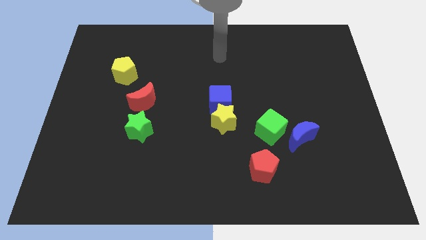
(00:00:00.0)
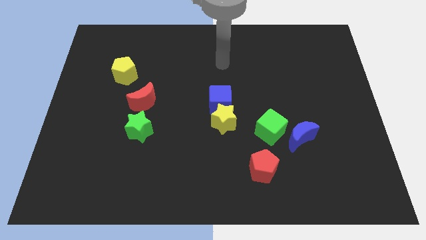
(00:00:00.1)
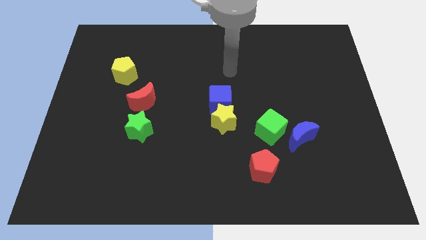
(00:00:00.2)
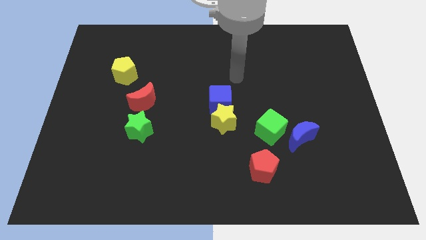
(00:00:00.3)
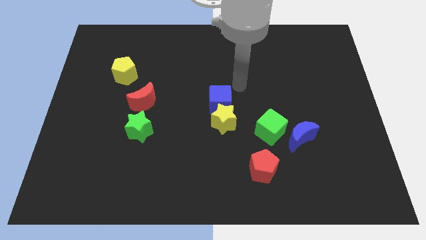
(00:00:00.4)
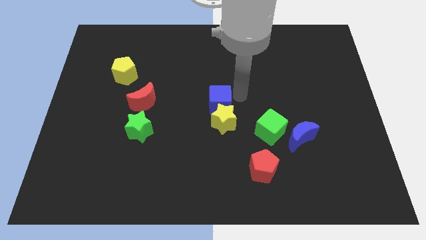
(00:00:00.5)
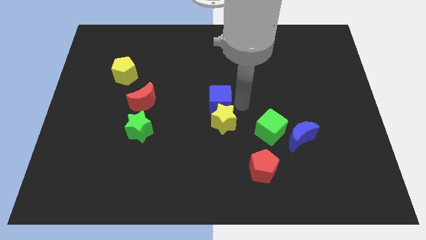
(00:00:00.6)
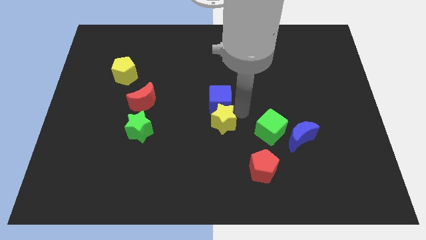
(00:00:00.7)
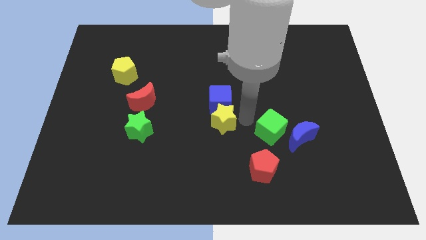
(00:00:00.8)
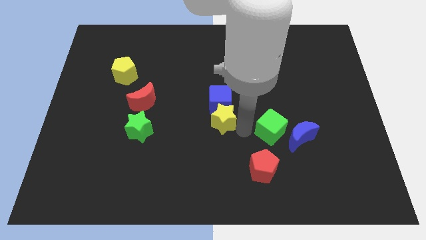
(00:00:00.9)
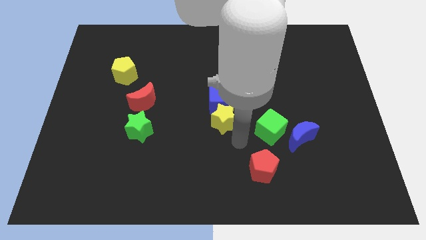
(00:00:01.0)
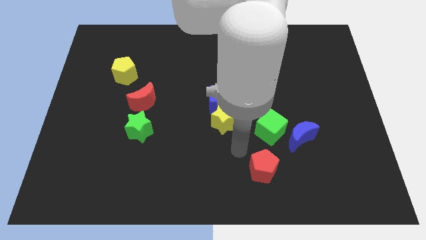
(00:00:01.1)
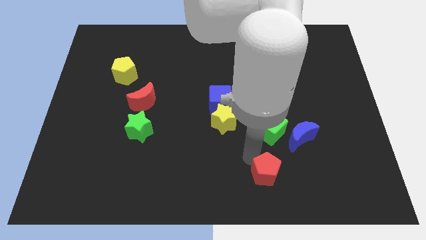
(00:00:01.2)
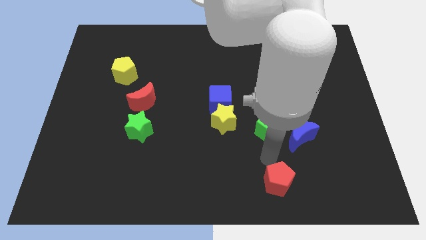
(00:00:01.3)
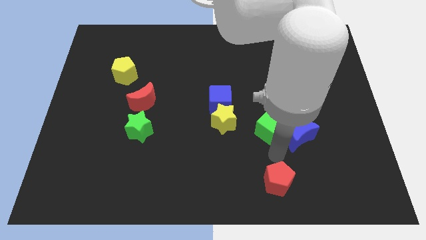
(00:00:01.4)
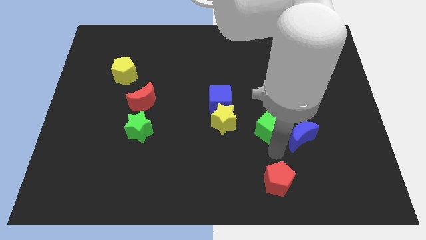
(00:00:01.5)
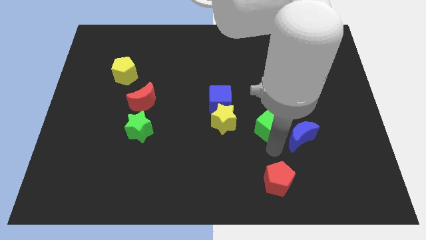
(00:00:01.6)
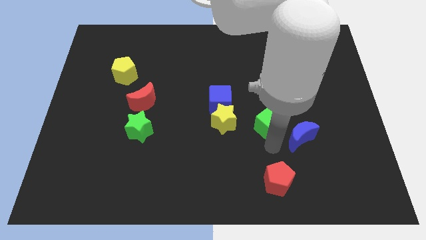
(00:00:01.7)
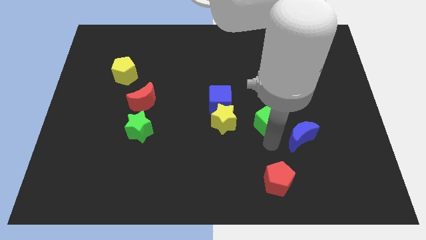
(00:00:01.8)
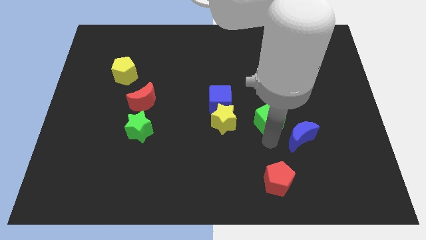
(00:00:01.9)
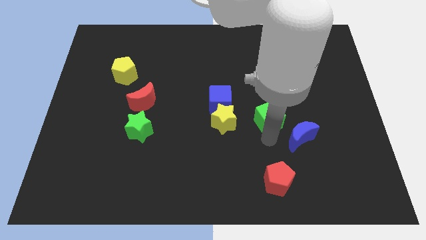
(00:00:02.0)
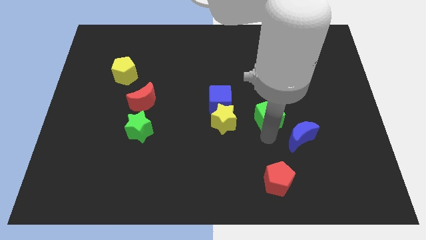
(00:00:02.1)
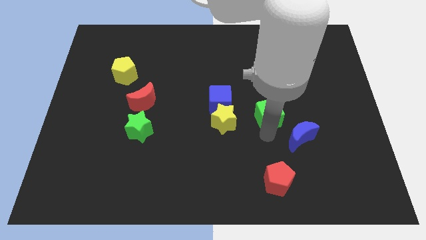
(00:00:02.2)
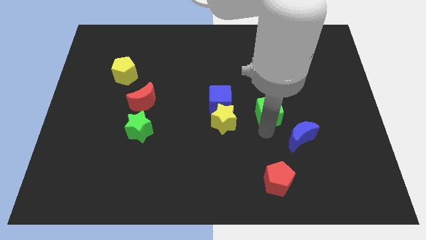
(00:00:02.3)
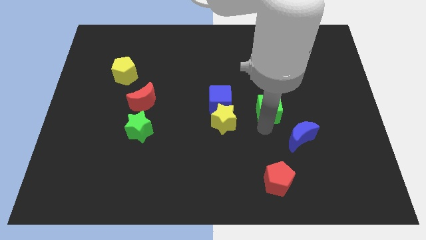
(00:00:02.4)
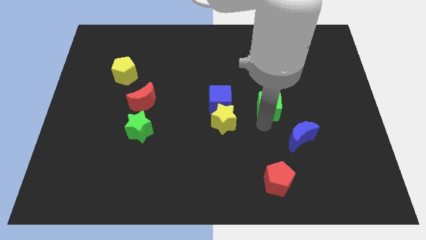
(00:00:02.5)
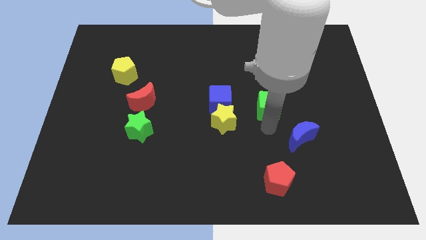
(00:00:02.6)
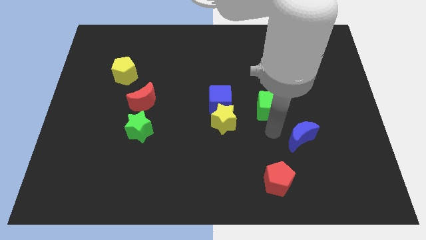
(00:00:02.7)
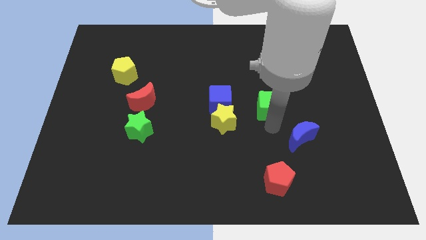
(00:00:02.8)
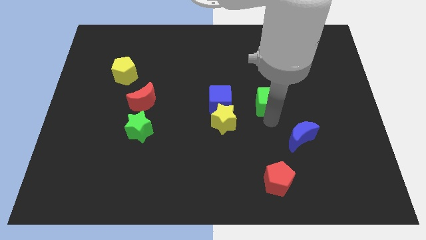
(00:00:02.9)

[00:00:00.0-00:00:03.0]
slide the green cube a bit upwards

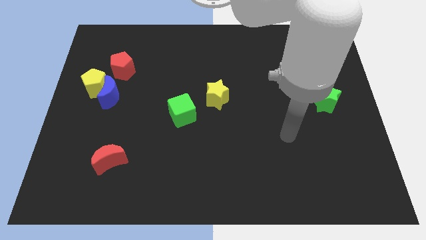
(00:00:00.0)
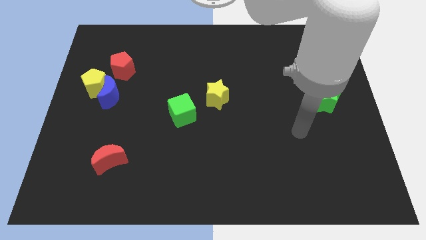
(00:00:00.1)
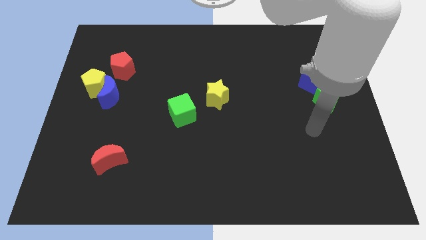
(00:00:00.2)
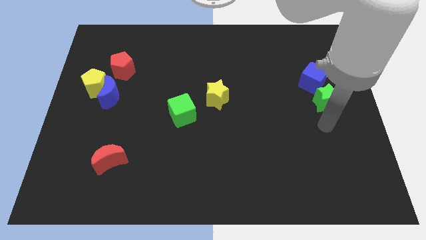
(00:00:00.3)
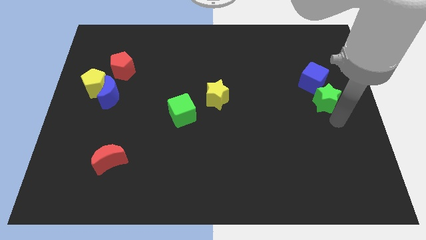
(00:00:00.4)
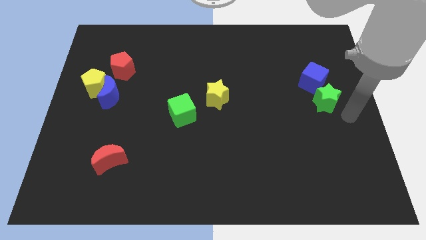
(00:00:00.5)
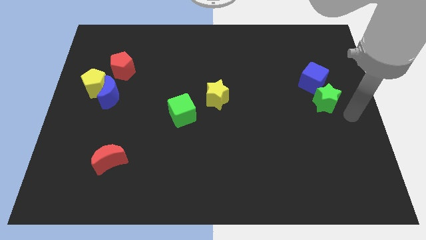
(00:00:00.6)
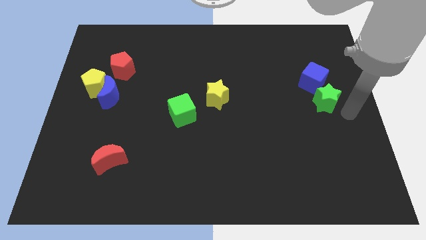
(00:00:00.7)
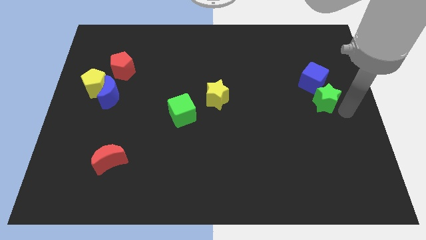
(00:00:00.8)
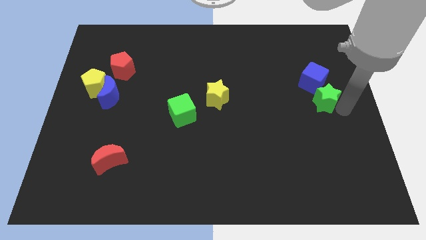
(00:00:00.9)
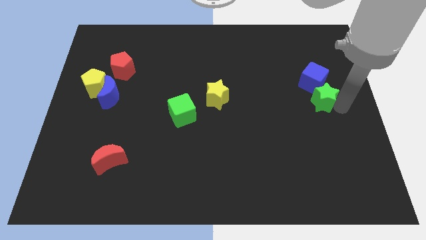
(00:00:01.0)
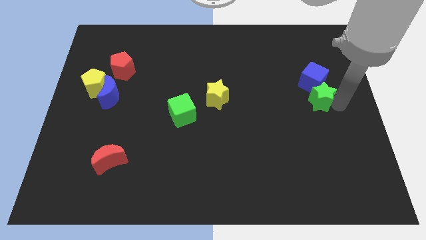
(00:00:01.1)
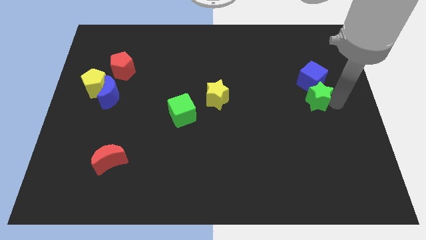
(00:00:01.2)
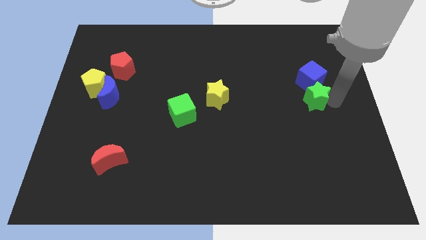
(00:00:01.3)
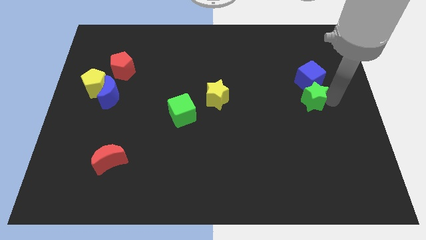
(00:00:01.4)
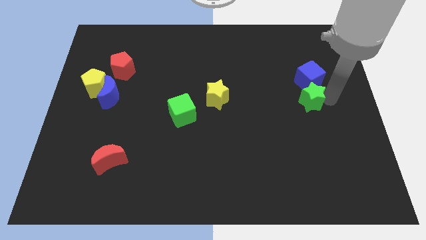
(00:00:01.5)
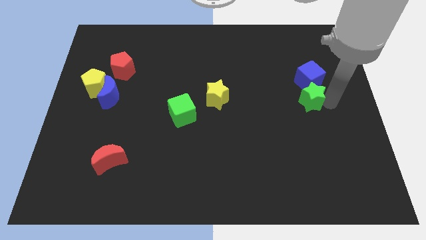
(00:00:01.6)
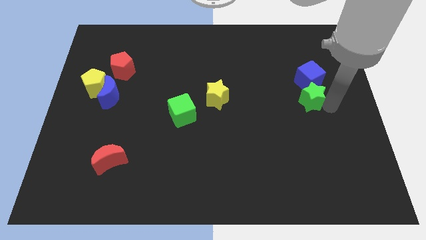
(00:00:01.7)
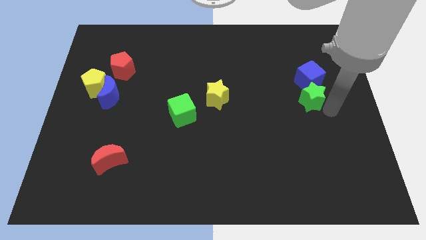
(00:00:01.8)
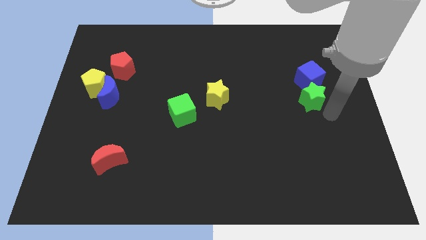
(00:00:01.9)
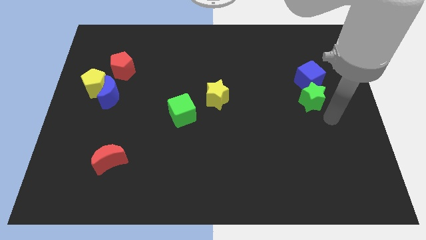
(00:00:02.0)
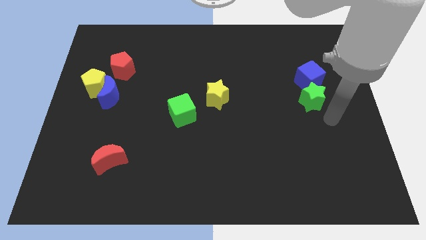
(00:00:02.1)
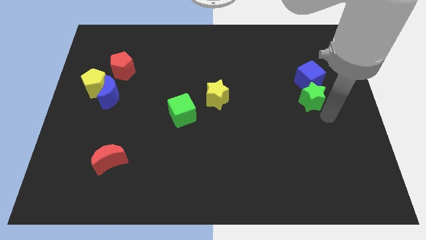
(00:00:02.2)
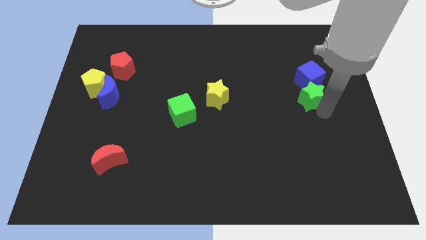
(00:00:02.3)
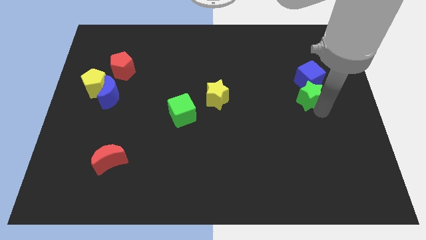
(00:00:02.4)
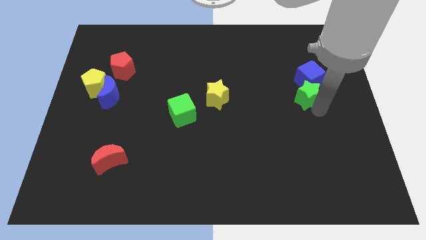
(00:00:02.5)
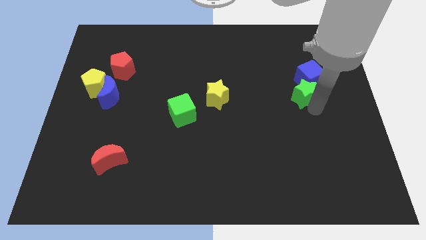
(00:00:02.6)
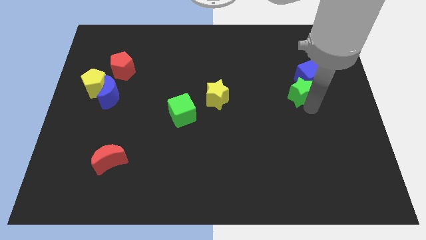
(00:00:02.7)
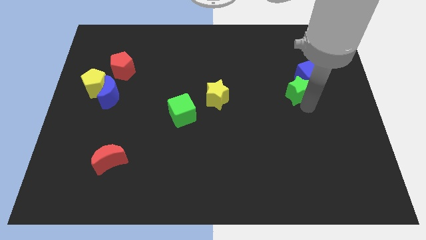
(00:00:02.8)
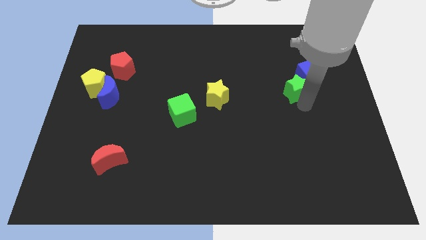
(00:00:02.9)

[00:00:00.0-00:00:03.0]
move the green star upwards and left a little bit

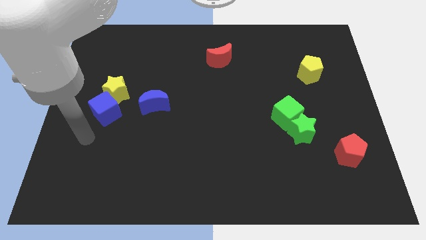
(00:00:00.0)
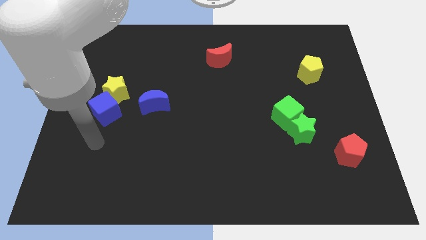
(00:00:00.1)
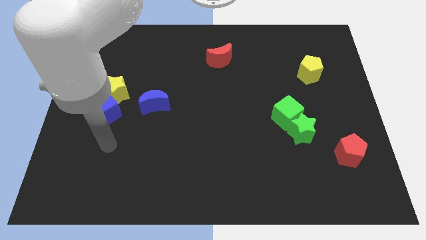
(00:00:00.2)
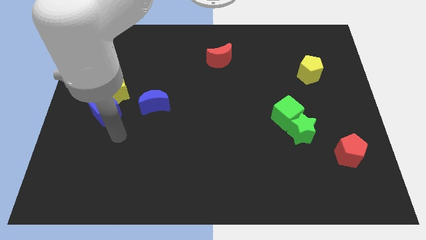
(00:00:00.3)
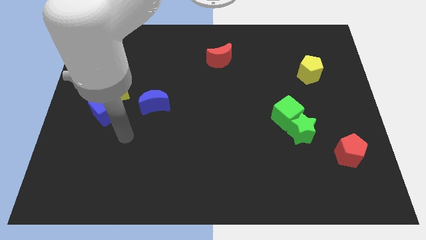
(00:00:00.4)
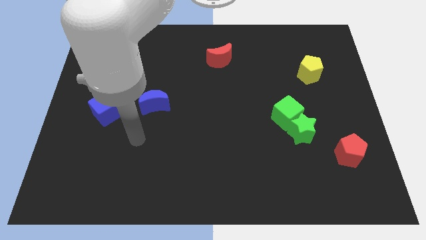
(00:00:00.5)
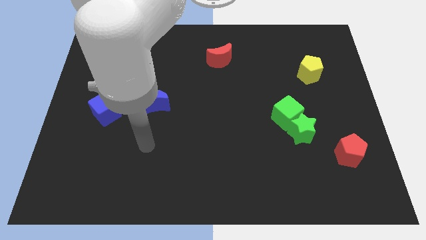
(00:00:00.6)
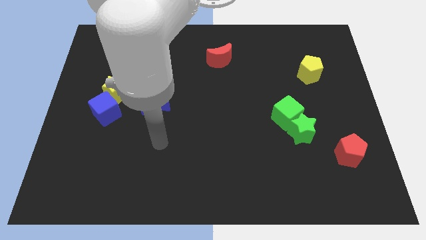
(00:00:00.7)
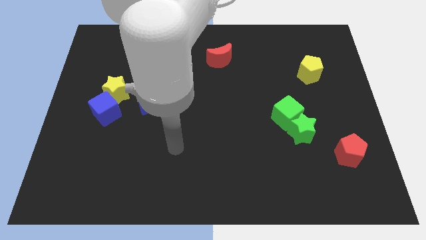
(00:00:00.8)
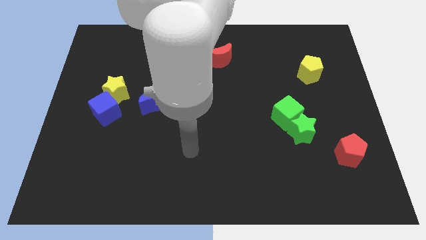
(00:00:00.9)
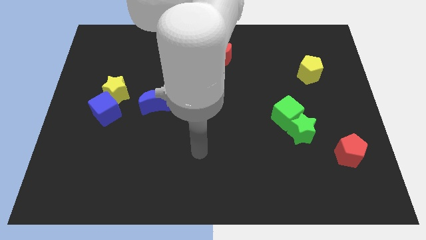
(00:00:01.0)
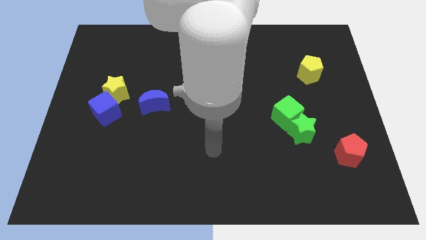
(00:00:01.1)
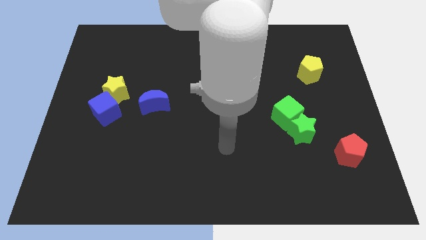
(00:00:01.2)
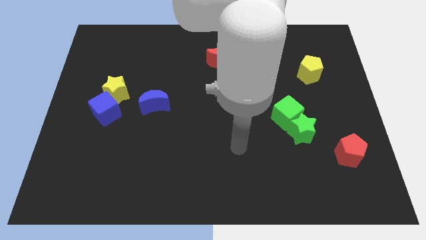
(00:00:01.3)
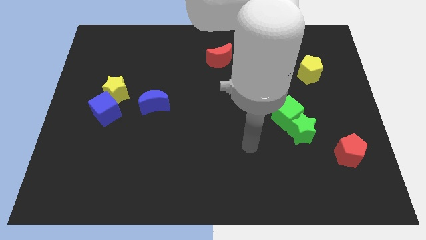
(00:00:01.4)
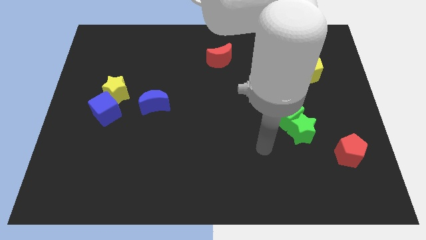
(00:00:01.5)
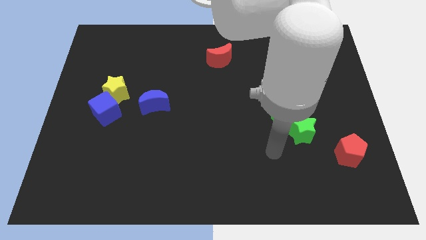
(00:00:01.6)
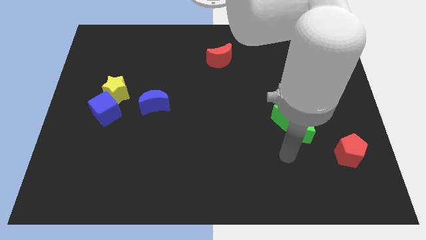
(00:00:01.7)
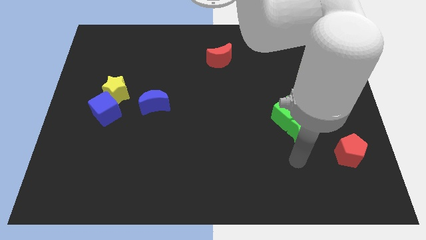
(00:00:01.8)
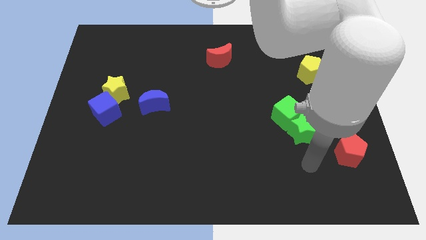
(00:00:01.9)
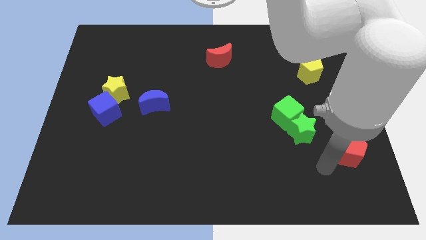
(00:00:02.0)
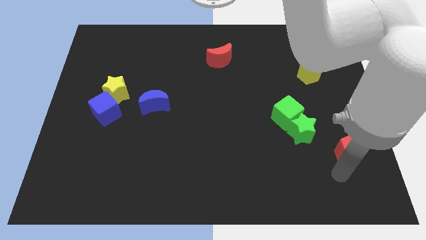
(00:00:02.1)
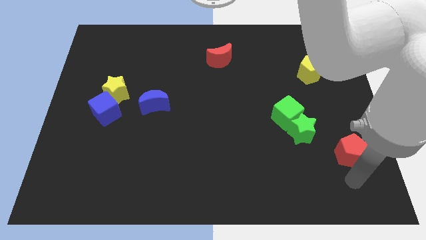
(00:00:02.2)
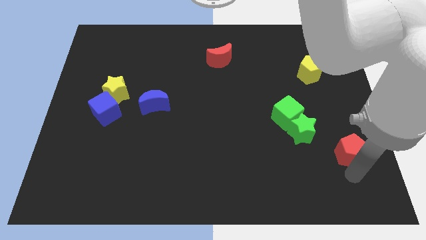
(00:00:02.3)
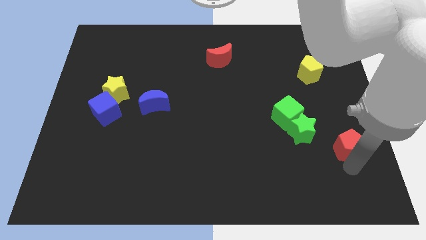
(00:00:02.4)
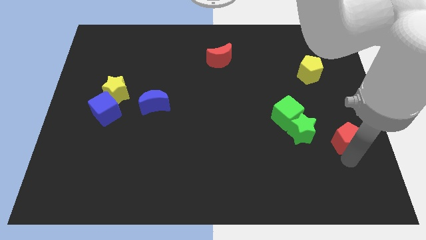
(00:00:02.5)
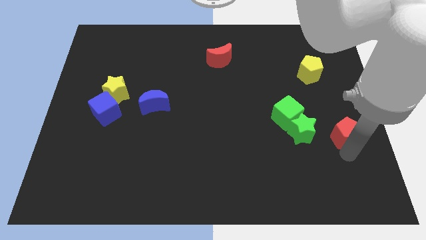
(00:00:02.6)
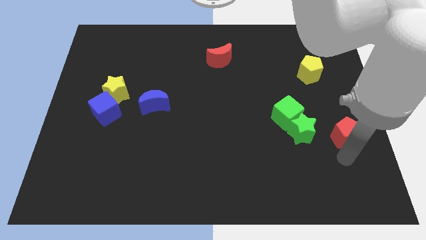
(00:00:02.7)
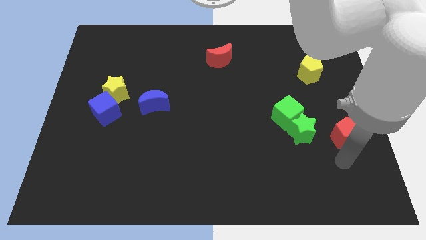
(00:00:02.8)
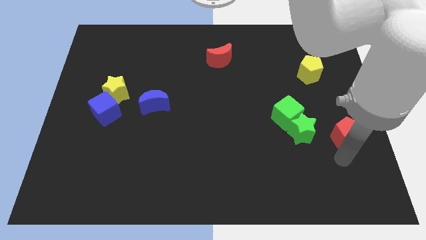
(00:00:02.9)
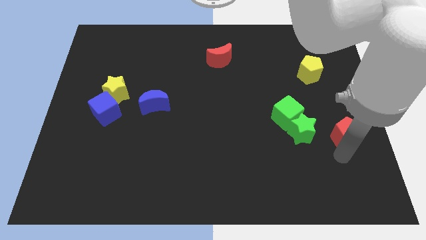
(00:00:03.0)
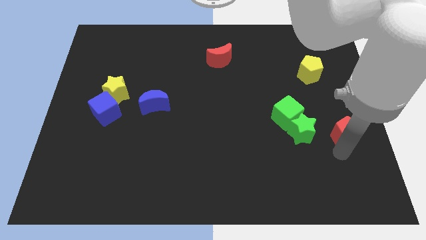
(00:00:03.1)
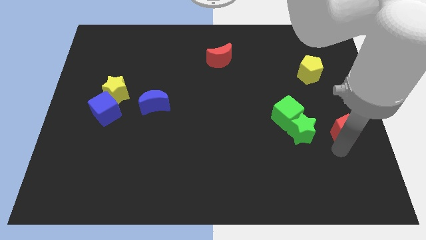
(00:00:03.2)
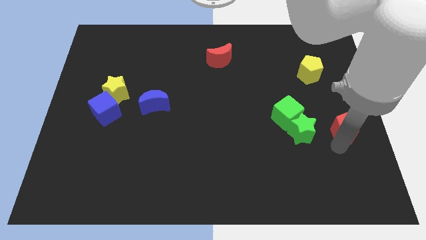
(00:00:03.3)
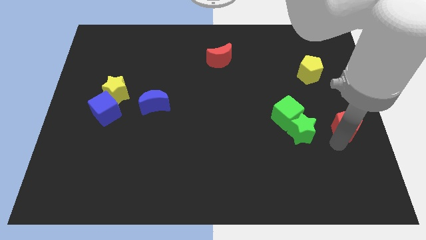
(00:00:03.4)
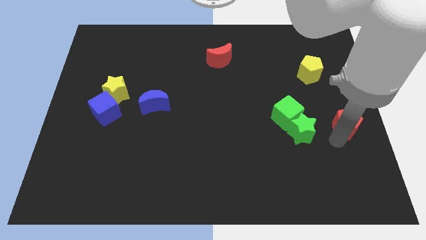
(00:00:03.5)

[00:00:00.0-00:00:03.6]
move the red pentagon slightly upwards
